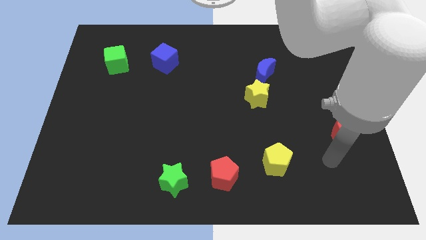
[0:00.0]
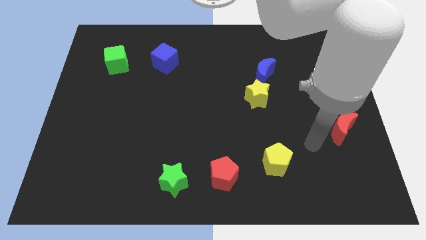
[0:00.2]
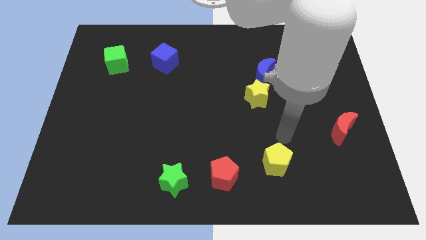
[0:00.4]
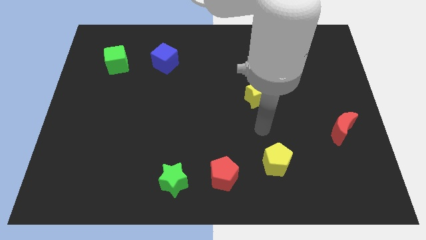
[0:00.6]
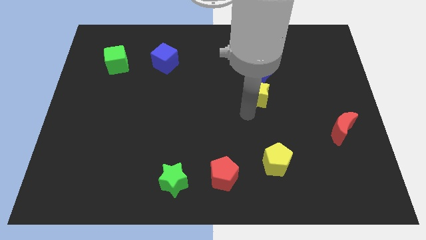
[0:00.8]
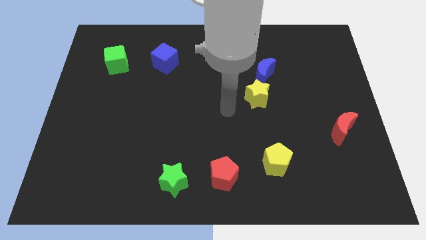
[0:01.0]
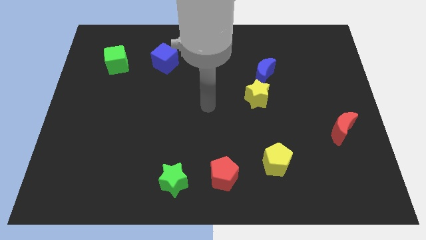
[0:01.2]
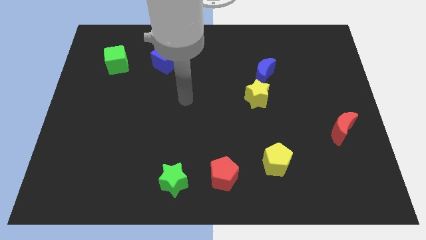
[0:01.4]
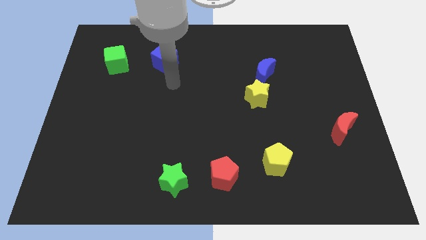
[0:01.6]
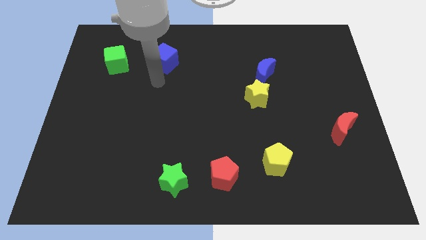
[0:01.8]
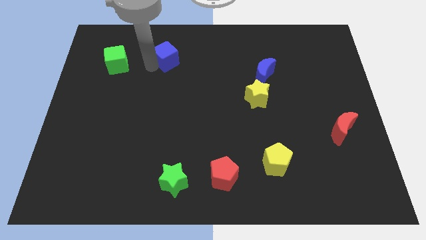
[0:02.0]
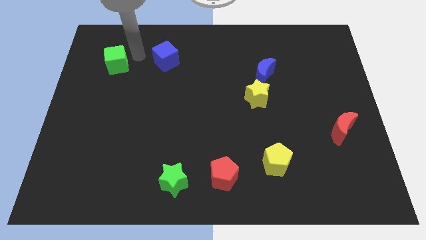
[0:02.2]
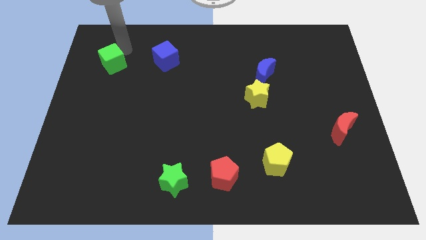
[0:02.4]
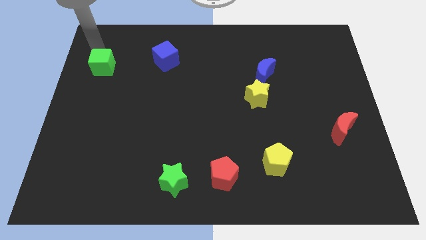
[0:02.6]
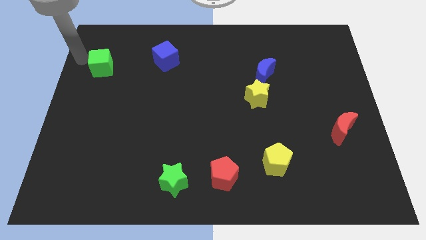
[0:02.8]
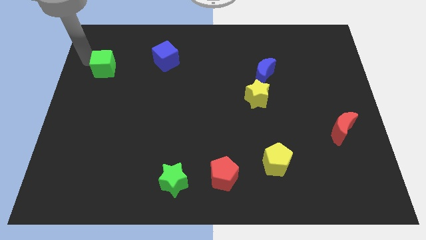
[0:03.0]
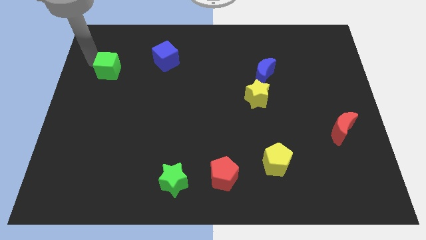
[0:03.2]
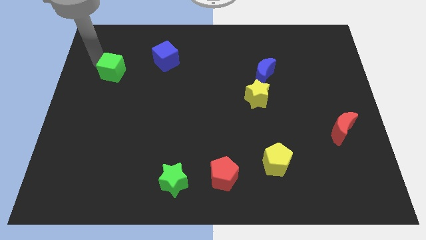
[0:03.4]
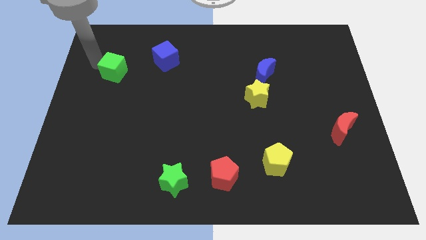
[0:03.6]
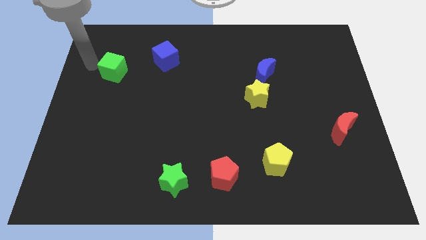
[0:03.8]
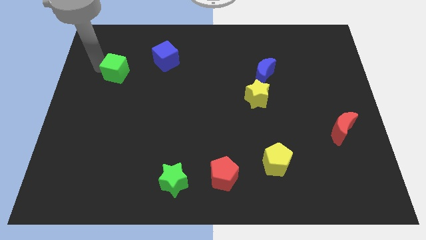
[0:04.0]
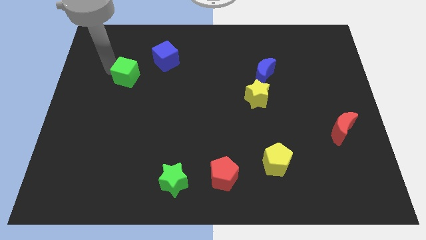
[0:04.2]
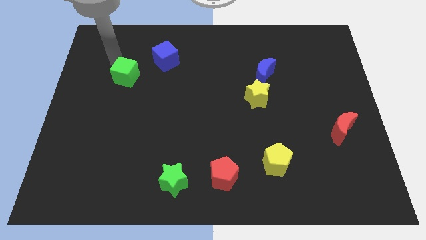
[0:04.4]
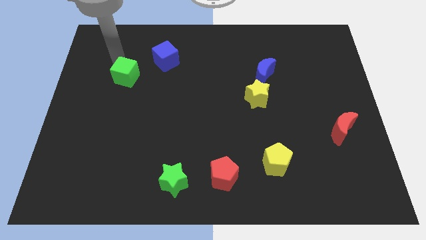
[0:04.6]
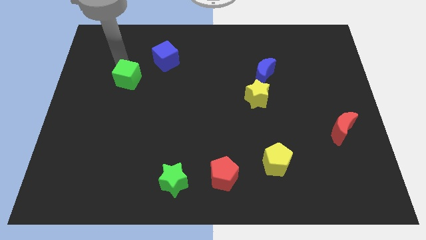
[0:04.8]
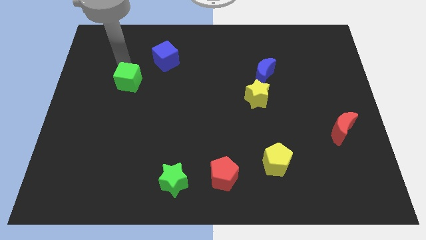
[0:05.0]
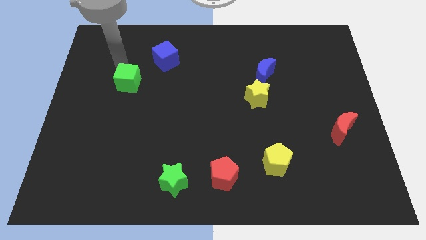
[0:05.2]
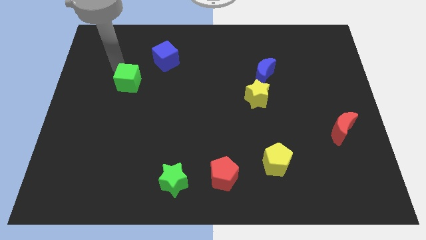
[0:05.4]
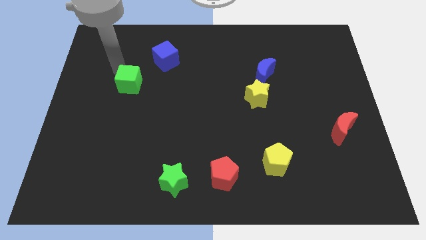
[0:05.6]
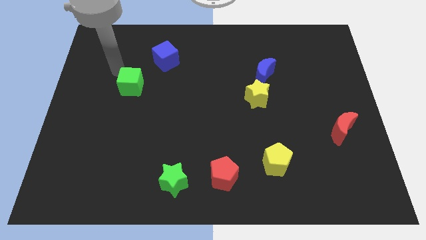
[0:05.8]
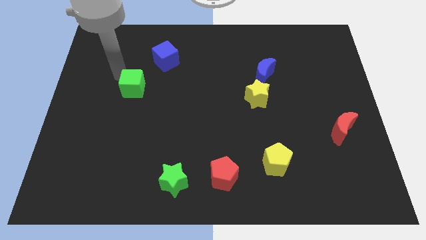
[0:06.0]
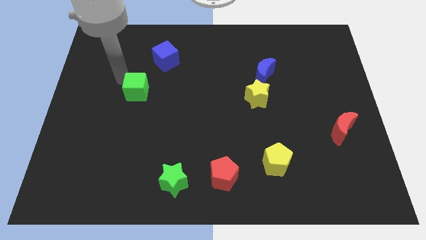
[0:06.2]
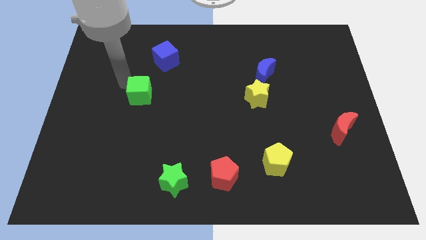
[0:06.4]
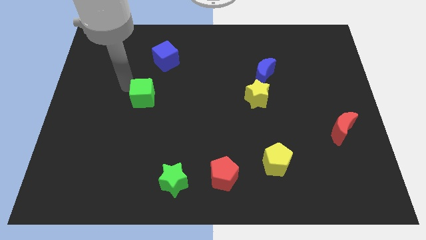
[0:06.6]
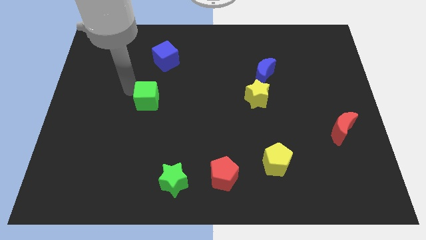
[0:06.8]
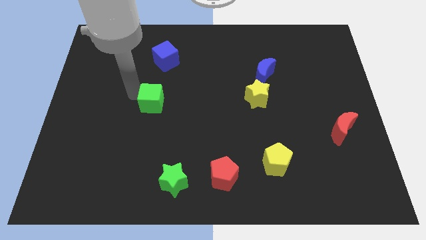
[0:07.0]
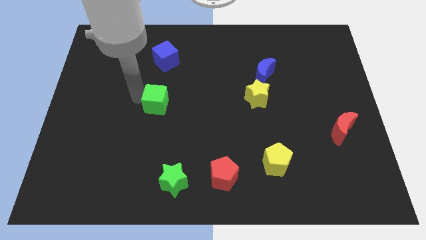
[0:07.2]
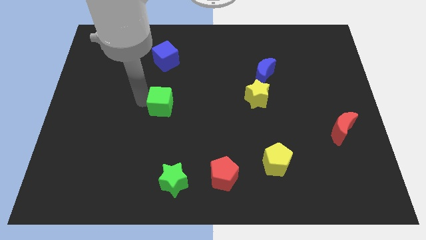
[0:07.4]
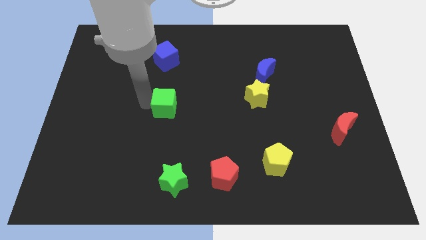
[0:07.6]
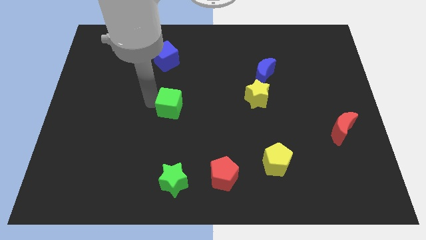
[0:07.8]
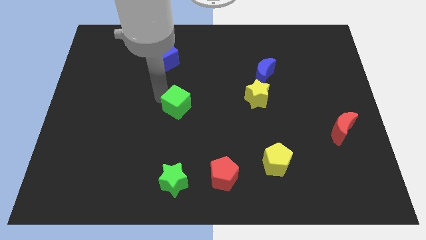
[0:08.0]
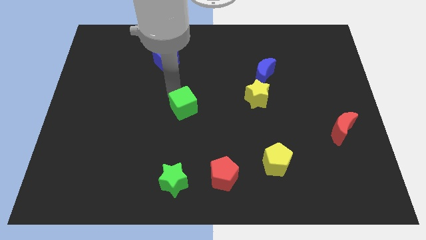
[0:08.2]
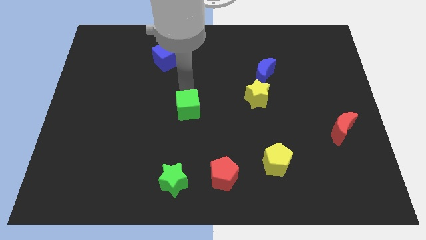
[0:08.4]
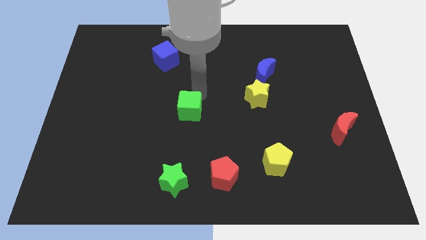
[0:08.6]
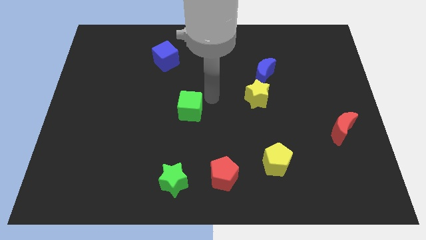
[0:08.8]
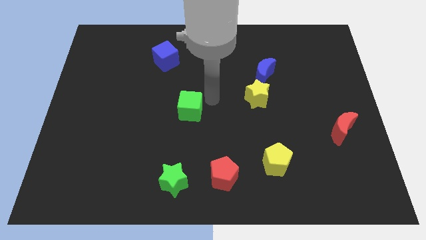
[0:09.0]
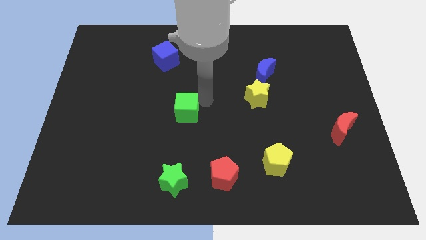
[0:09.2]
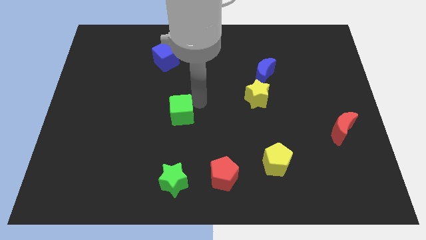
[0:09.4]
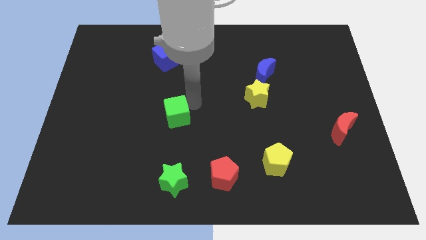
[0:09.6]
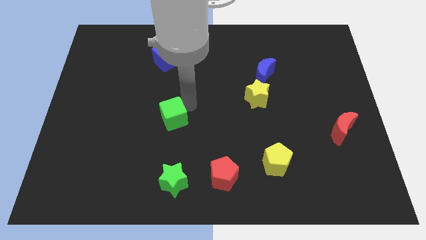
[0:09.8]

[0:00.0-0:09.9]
slide the green cube above the green star
